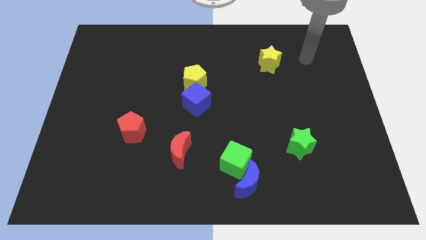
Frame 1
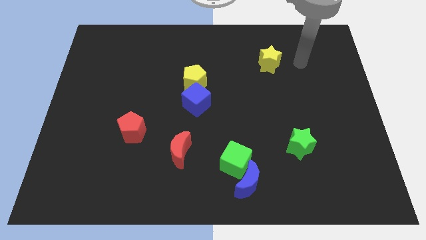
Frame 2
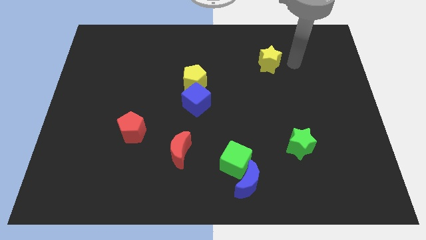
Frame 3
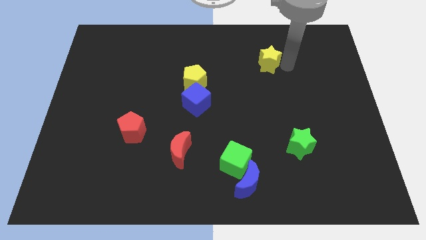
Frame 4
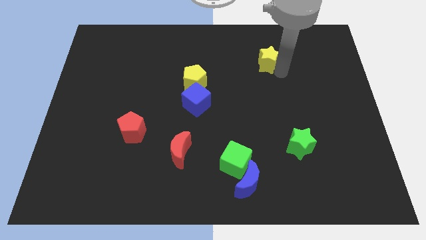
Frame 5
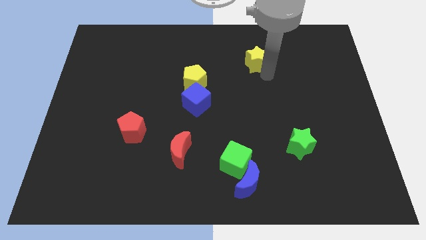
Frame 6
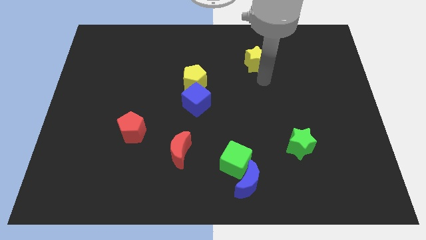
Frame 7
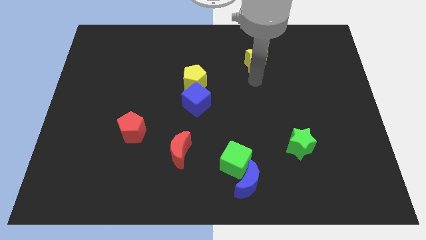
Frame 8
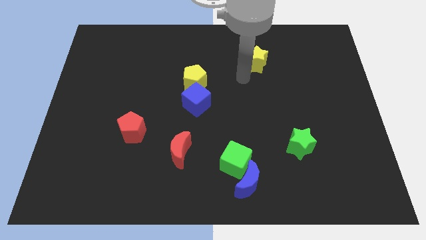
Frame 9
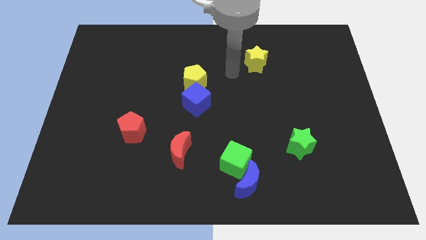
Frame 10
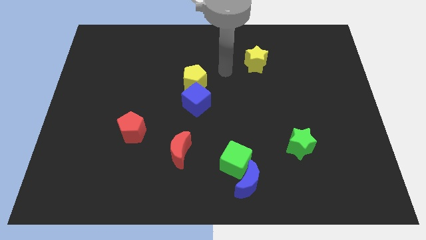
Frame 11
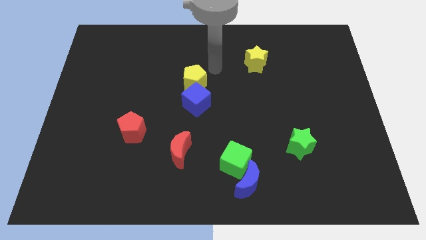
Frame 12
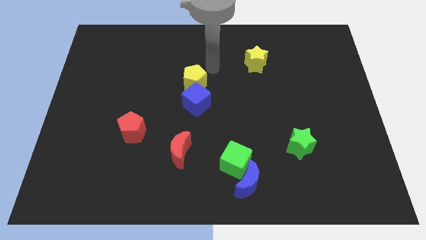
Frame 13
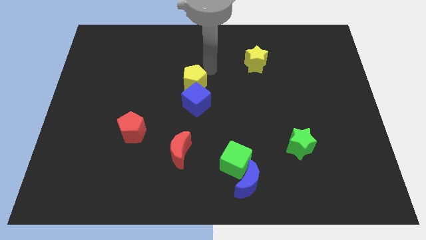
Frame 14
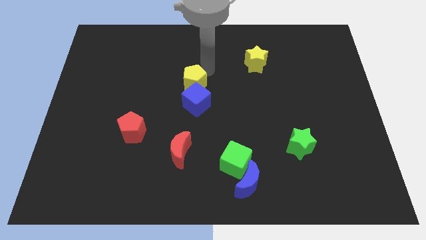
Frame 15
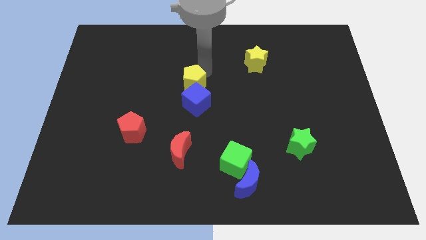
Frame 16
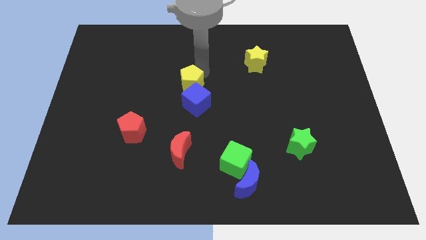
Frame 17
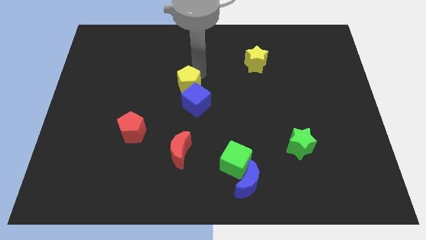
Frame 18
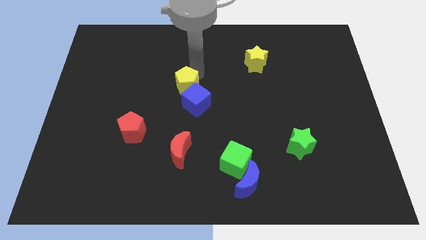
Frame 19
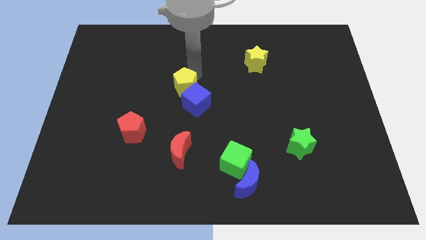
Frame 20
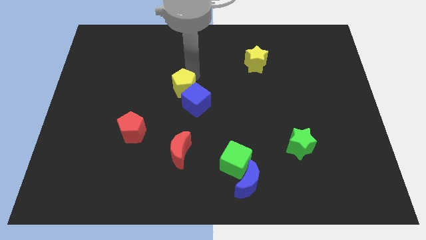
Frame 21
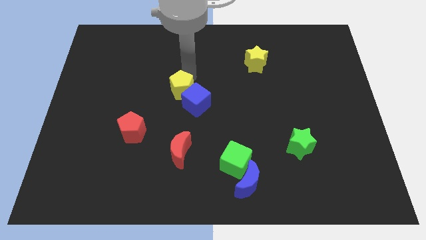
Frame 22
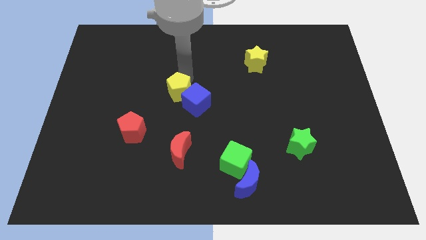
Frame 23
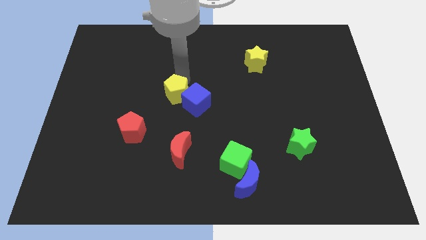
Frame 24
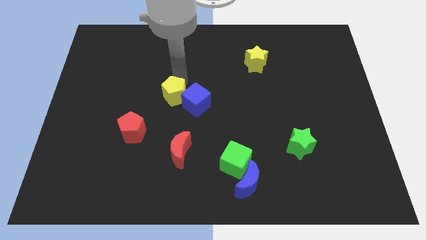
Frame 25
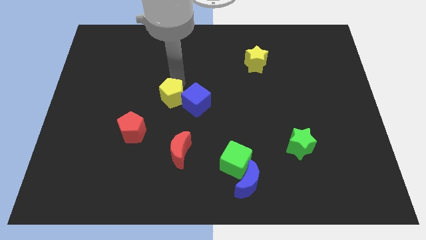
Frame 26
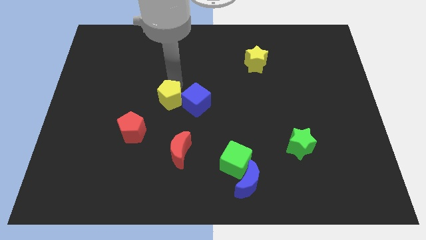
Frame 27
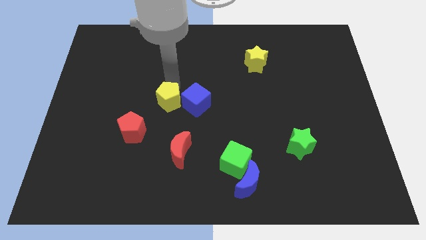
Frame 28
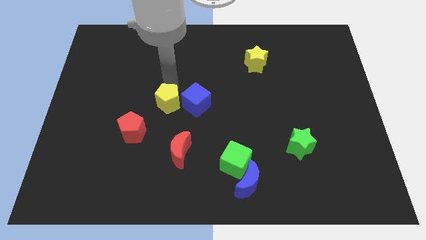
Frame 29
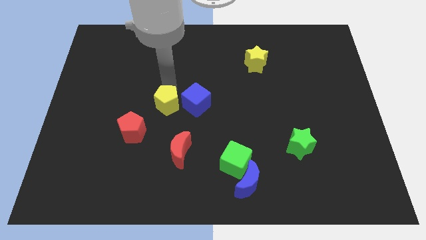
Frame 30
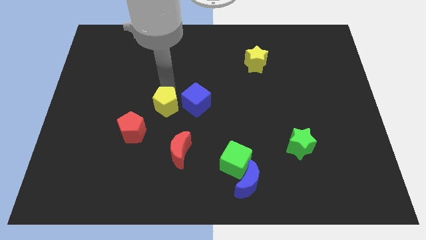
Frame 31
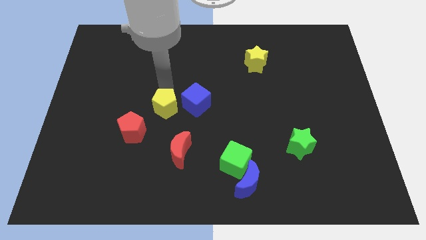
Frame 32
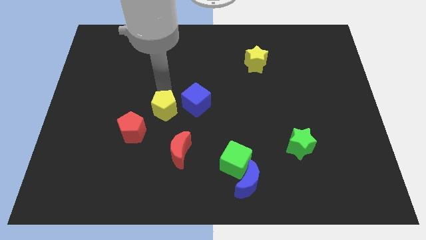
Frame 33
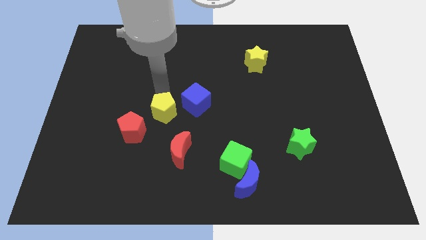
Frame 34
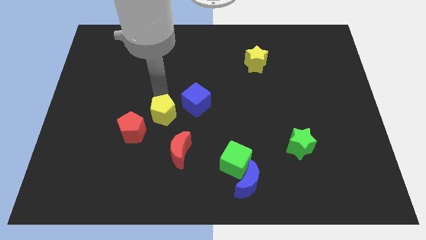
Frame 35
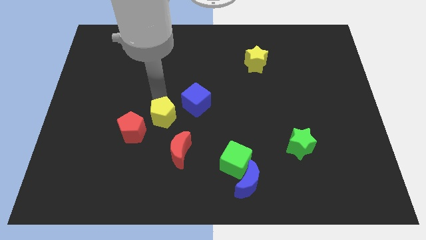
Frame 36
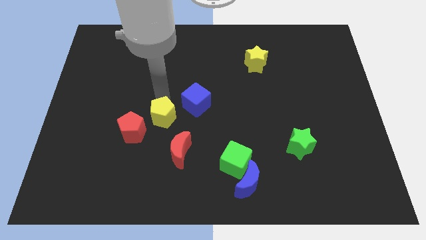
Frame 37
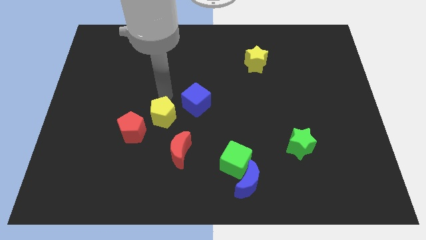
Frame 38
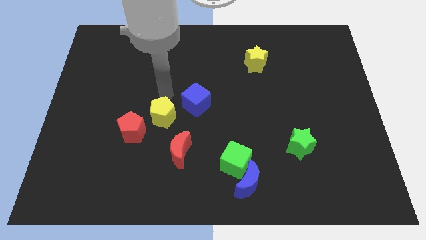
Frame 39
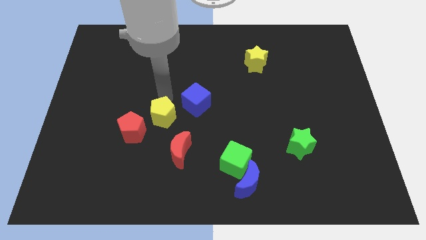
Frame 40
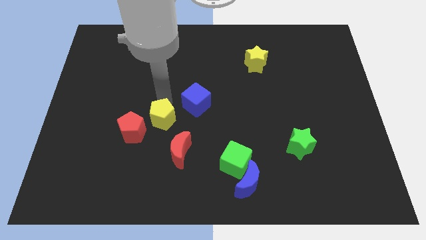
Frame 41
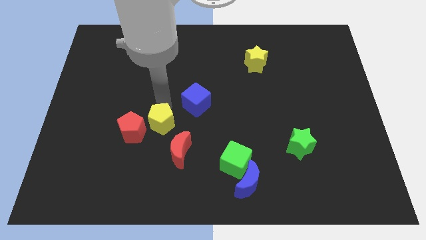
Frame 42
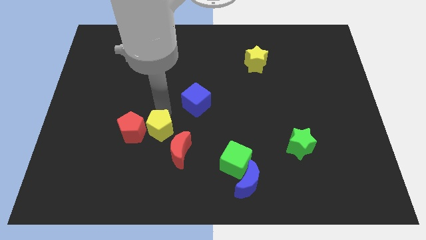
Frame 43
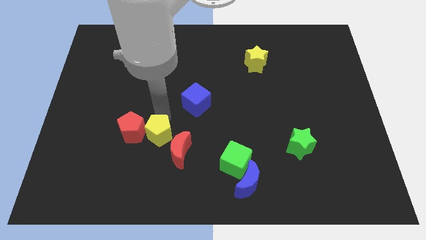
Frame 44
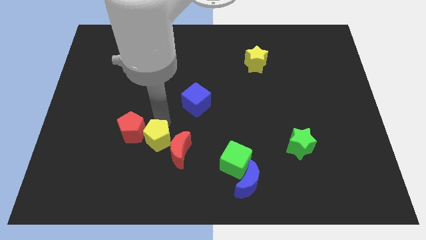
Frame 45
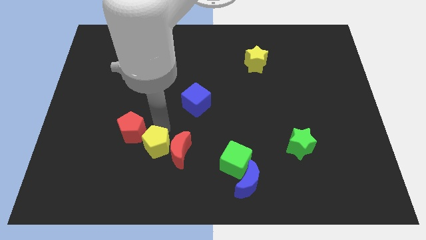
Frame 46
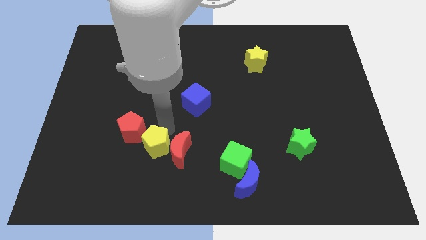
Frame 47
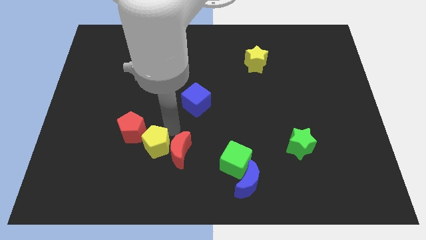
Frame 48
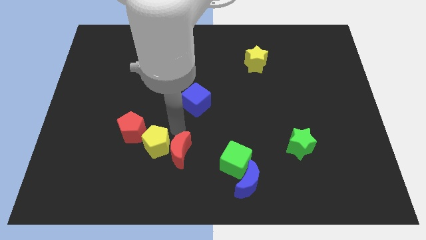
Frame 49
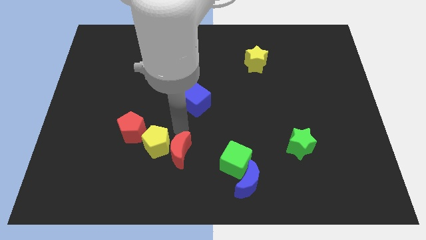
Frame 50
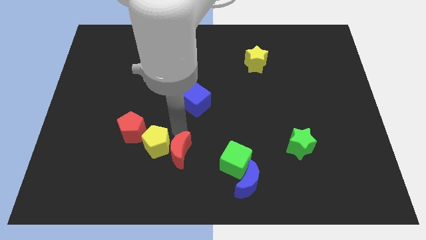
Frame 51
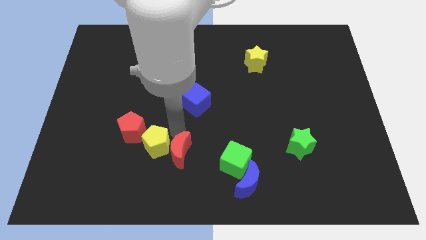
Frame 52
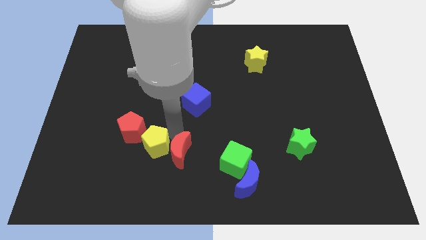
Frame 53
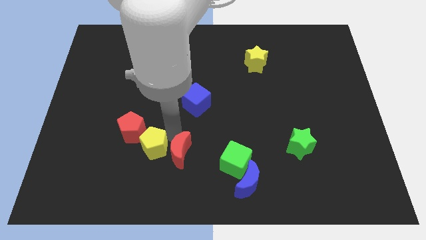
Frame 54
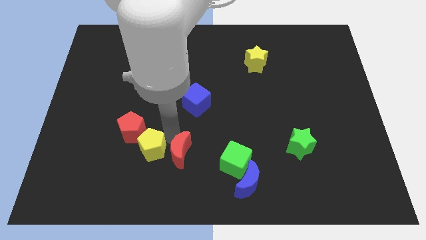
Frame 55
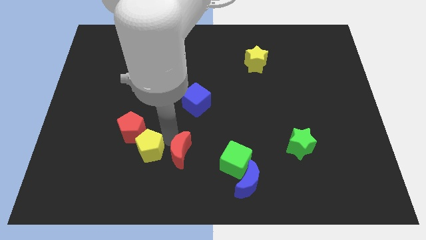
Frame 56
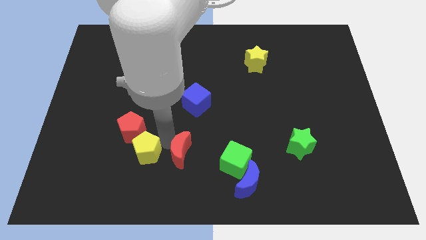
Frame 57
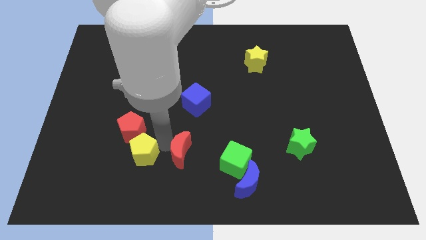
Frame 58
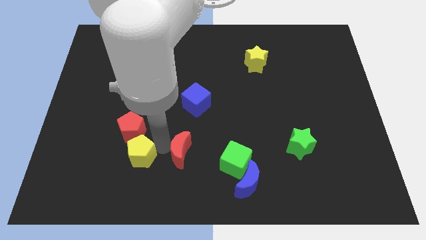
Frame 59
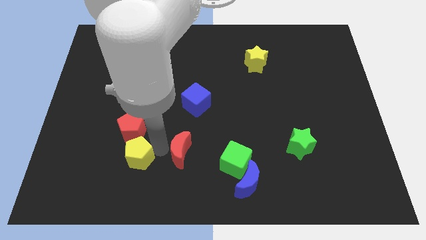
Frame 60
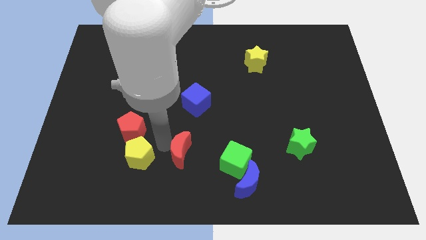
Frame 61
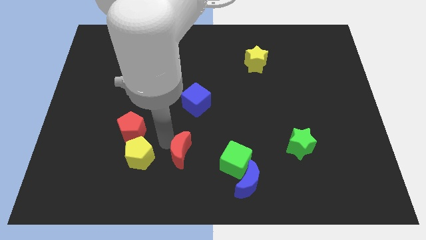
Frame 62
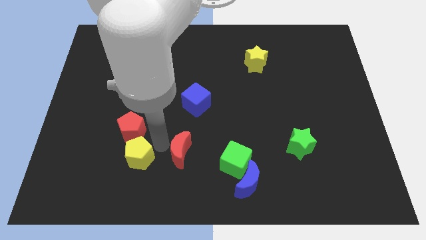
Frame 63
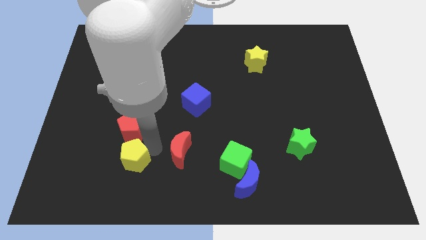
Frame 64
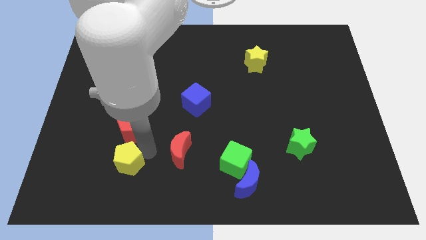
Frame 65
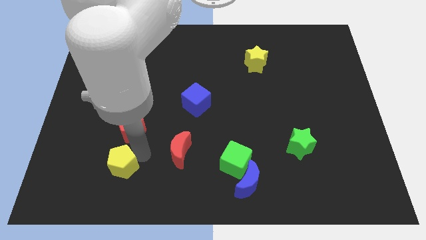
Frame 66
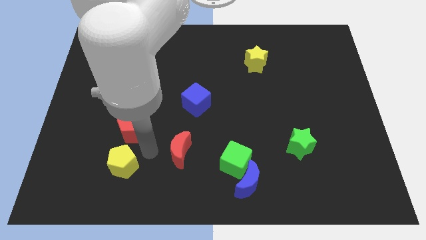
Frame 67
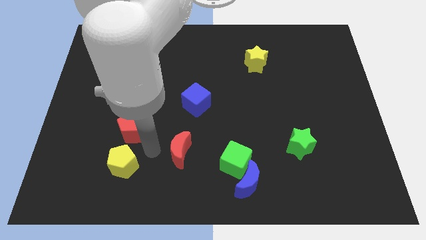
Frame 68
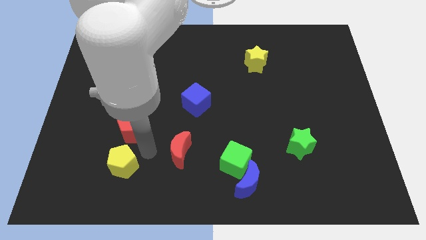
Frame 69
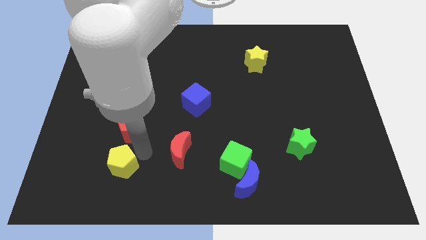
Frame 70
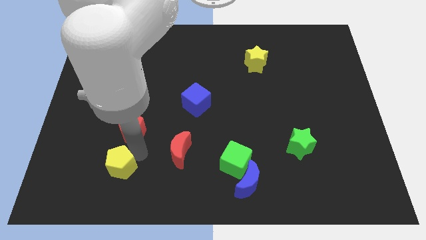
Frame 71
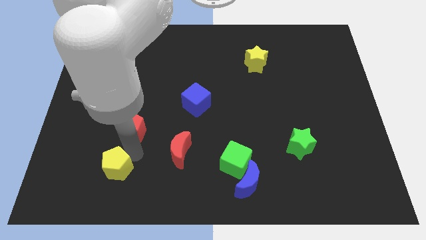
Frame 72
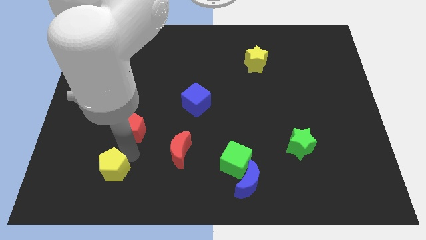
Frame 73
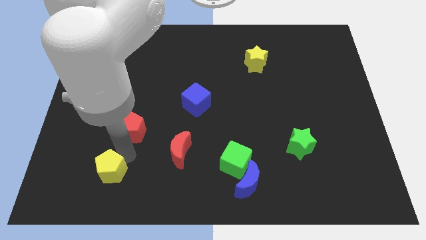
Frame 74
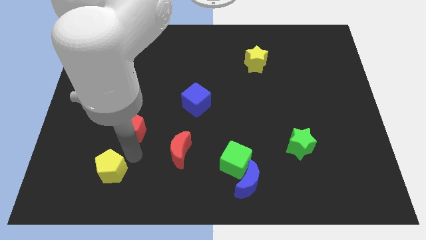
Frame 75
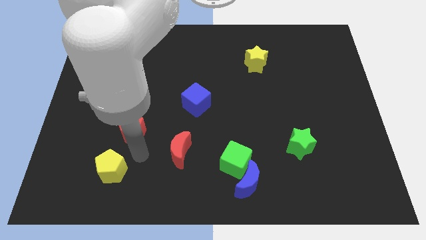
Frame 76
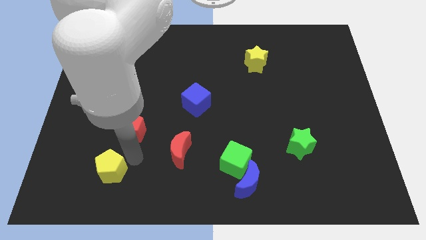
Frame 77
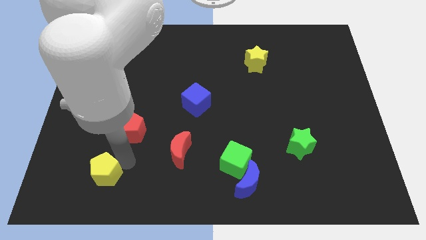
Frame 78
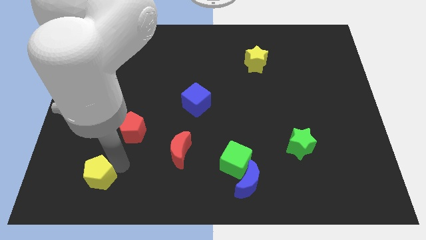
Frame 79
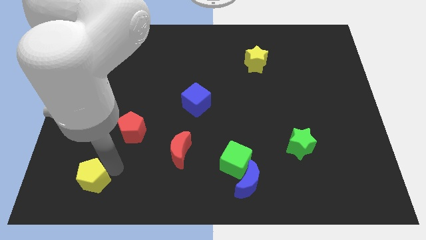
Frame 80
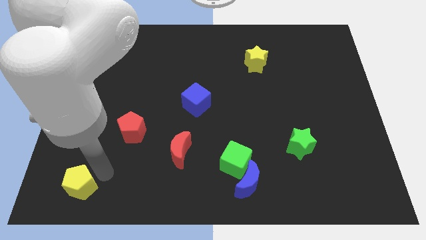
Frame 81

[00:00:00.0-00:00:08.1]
put the yellow pentagon to the bottom left corner
